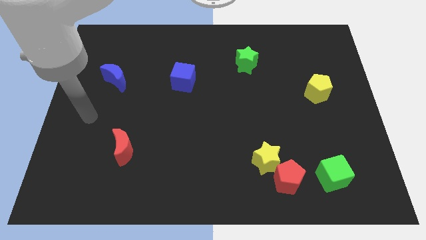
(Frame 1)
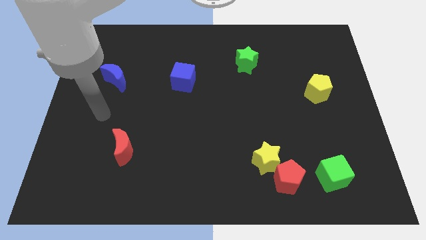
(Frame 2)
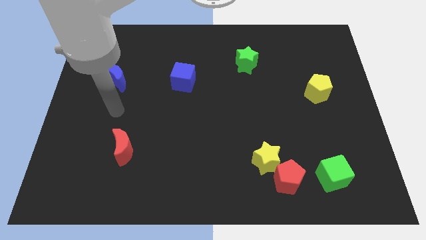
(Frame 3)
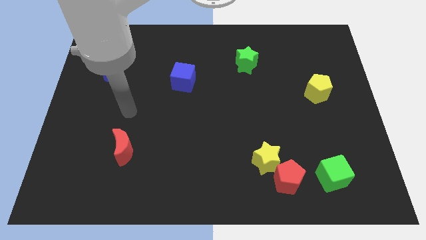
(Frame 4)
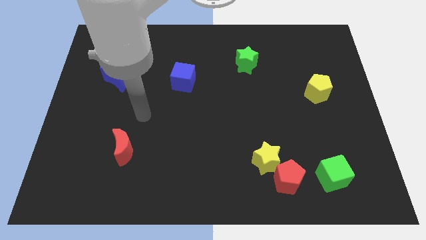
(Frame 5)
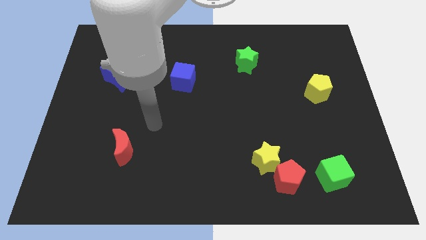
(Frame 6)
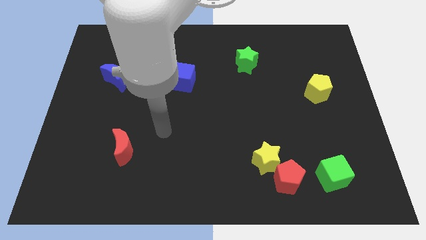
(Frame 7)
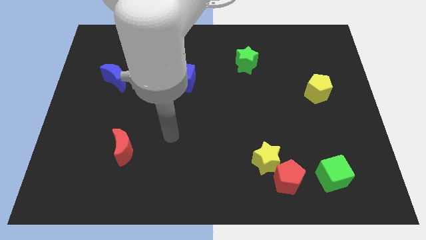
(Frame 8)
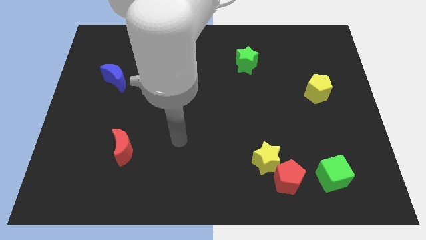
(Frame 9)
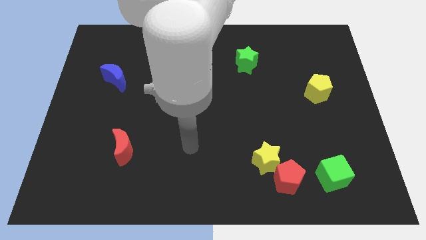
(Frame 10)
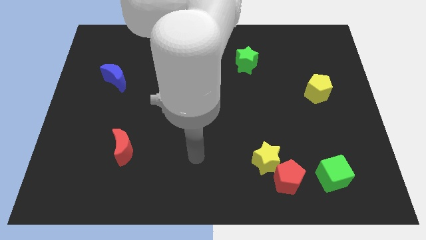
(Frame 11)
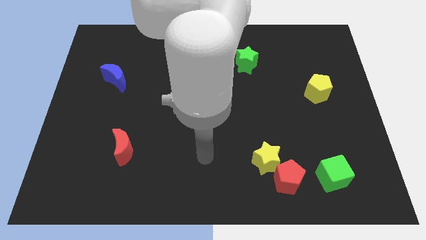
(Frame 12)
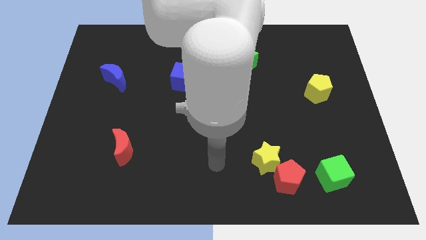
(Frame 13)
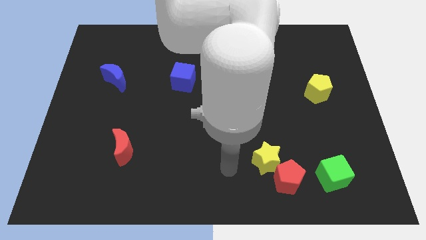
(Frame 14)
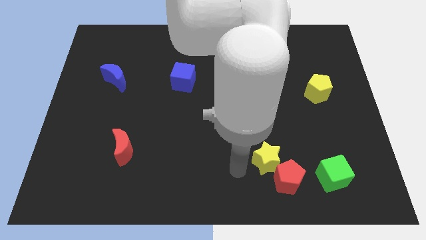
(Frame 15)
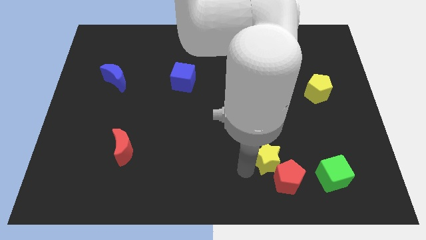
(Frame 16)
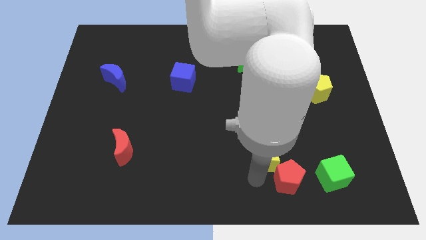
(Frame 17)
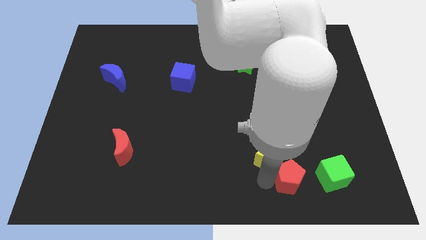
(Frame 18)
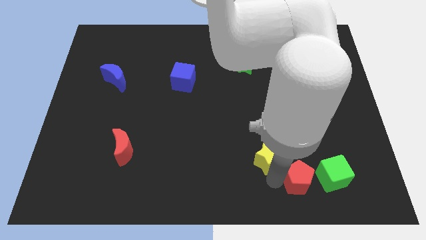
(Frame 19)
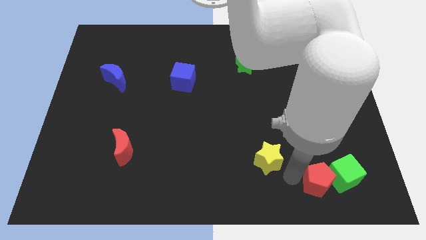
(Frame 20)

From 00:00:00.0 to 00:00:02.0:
pull the yellow star apart from the red pentagon

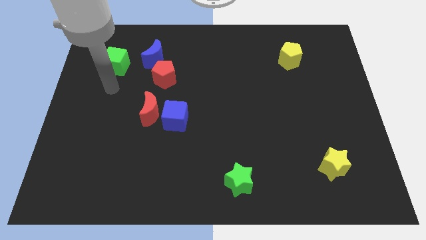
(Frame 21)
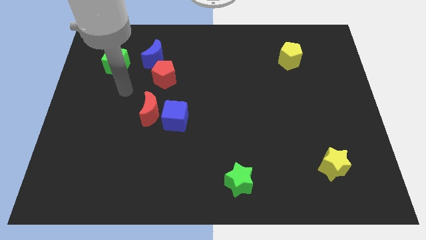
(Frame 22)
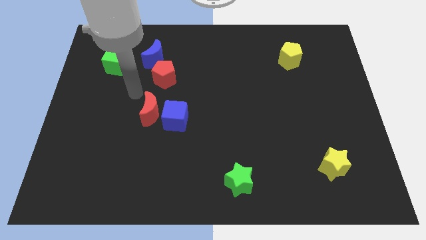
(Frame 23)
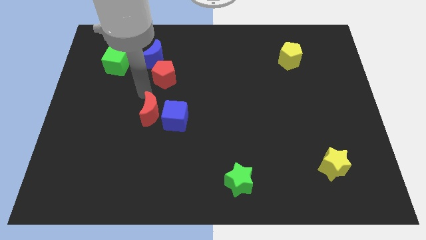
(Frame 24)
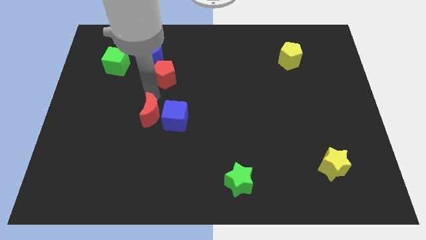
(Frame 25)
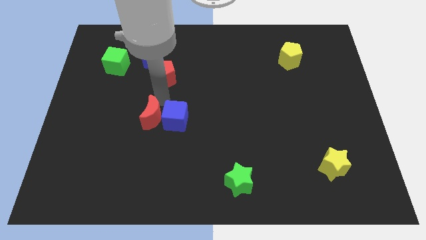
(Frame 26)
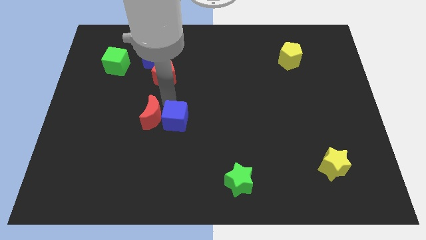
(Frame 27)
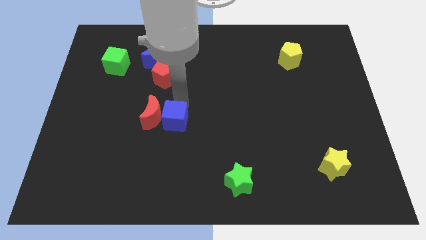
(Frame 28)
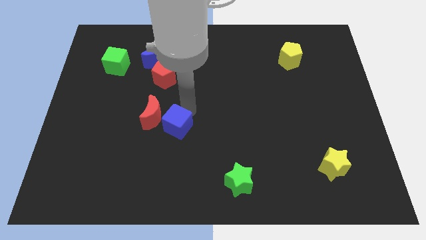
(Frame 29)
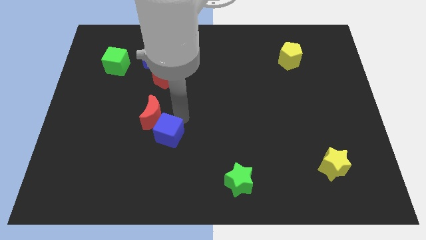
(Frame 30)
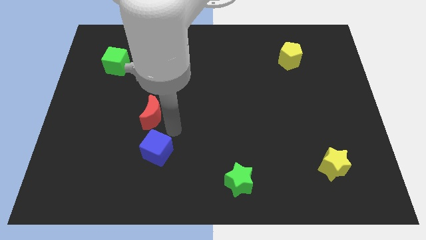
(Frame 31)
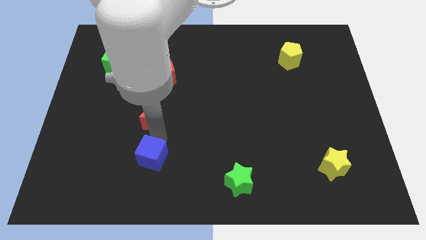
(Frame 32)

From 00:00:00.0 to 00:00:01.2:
move the red moon away from the blue cube

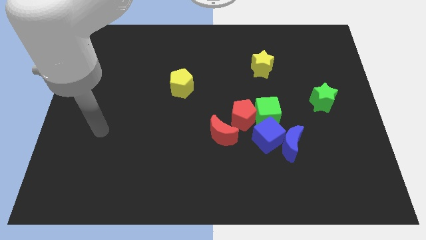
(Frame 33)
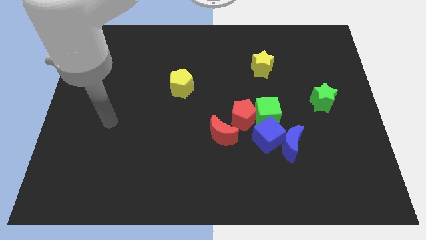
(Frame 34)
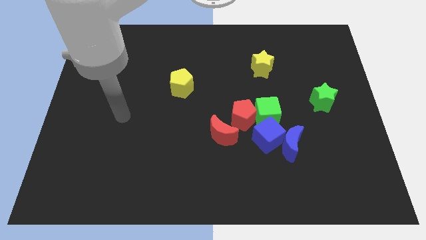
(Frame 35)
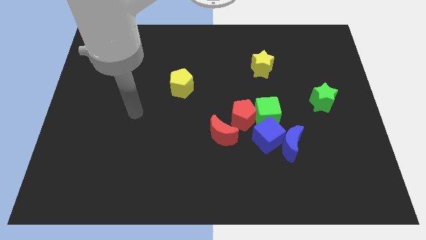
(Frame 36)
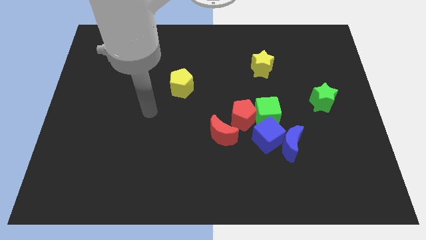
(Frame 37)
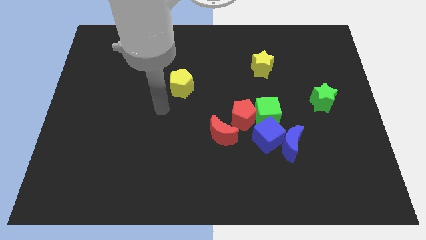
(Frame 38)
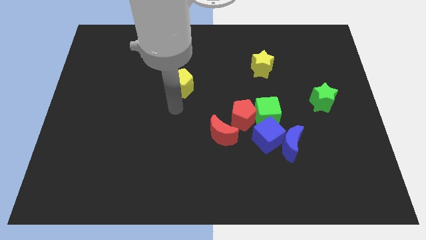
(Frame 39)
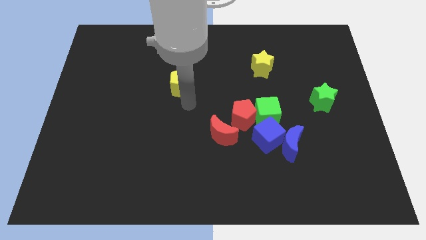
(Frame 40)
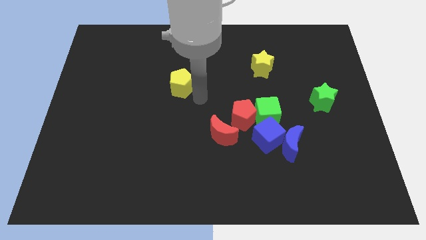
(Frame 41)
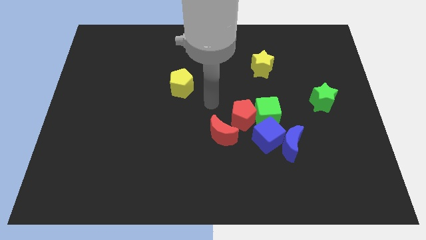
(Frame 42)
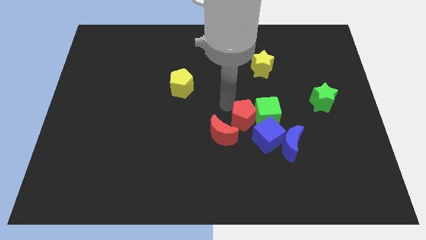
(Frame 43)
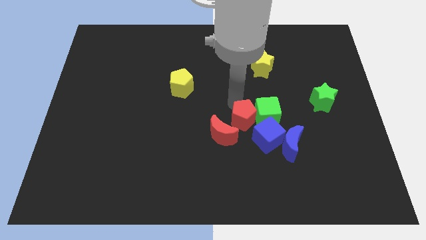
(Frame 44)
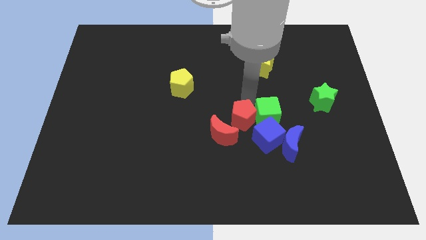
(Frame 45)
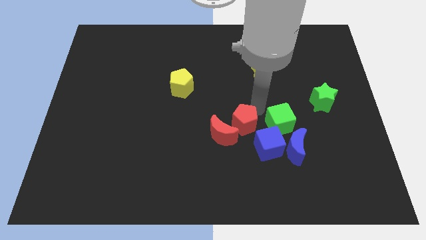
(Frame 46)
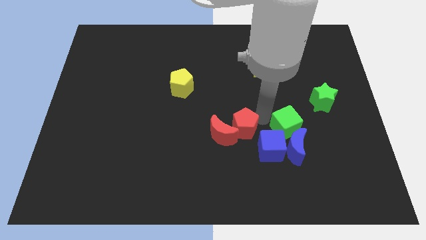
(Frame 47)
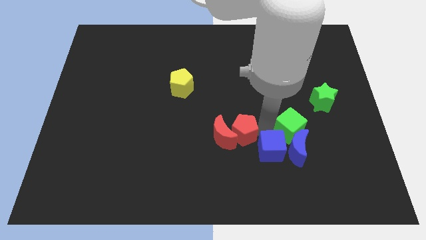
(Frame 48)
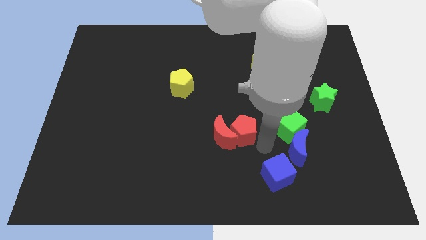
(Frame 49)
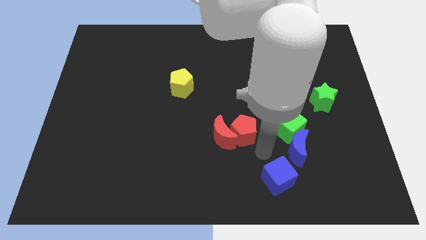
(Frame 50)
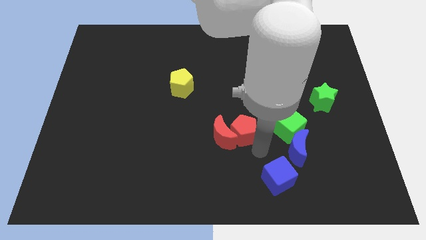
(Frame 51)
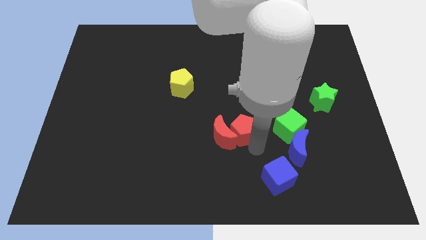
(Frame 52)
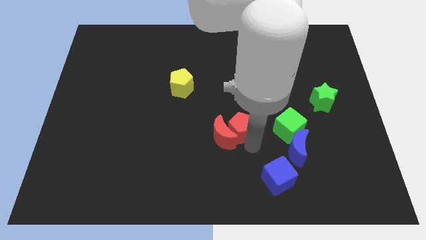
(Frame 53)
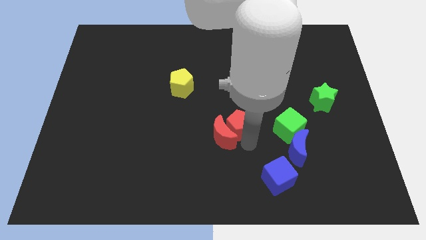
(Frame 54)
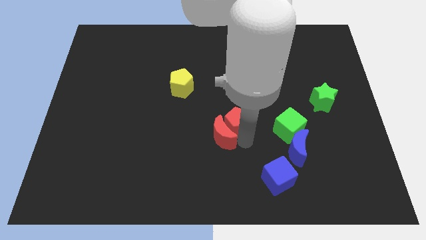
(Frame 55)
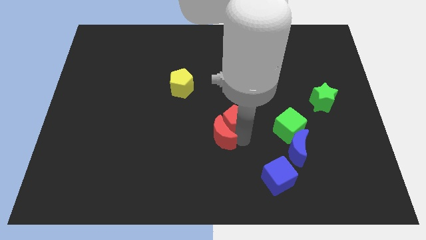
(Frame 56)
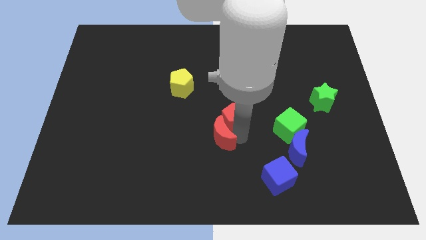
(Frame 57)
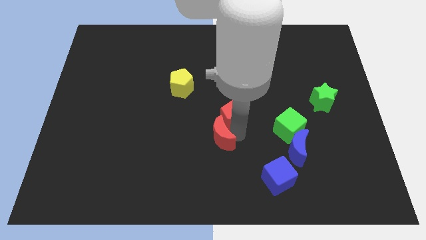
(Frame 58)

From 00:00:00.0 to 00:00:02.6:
move the red pentagon away from the group of blocks

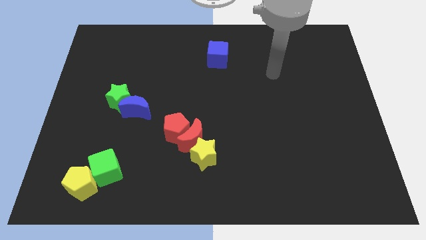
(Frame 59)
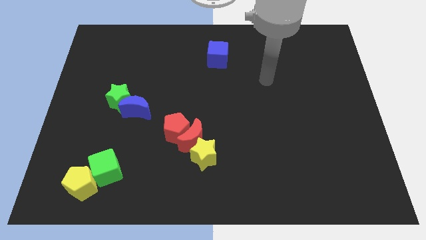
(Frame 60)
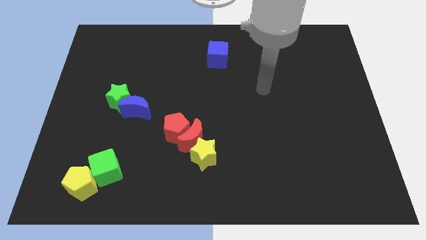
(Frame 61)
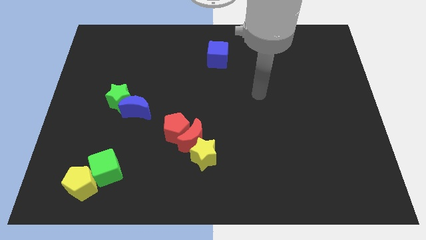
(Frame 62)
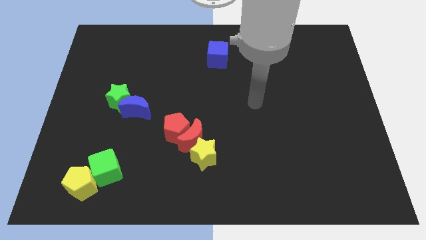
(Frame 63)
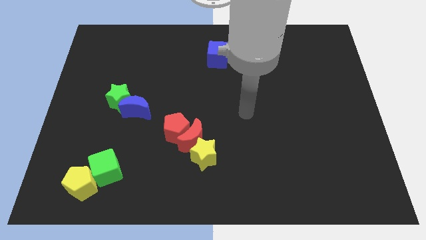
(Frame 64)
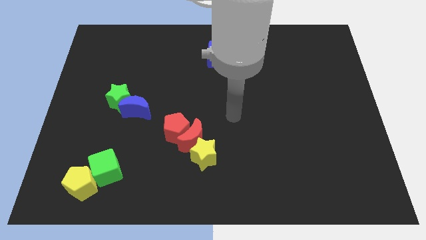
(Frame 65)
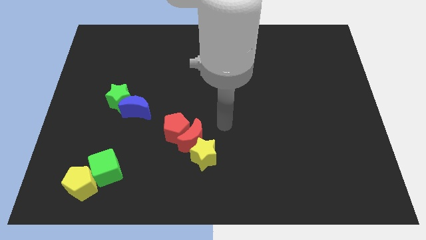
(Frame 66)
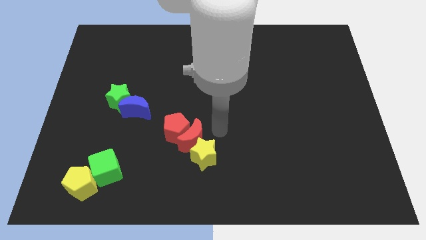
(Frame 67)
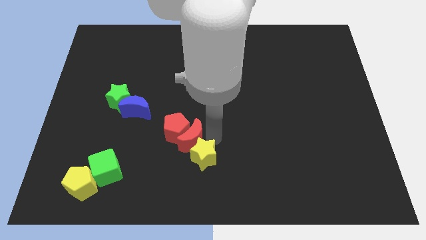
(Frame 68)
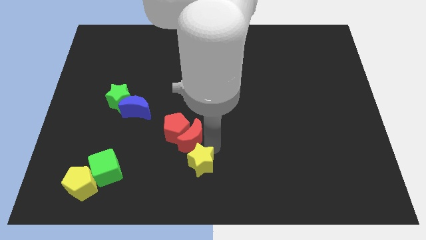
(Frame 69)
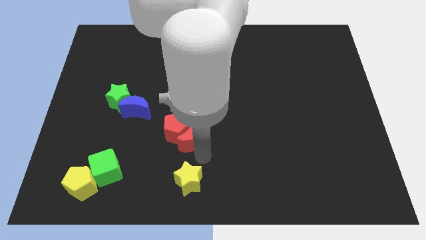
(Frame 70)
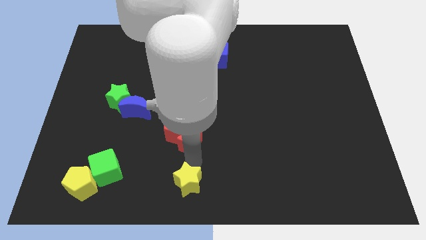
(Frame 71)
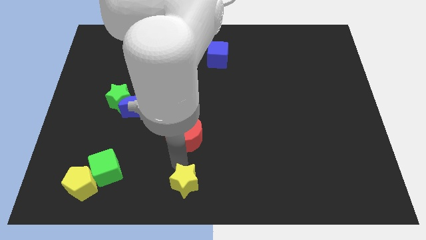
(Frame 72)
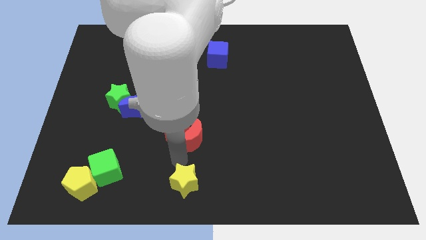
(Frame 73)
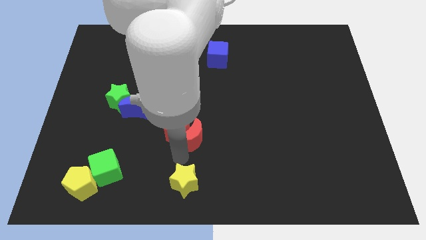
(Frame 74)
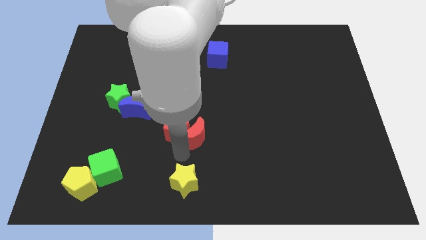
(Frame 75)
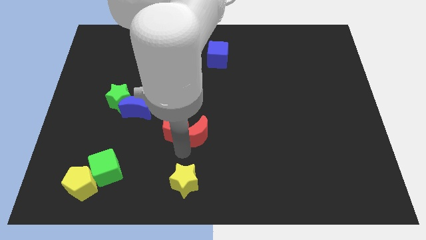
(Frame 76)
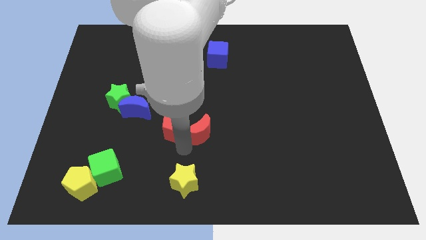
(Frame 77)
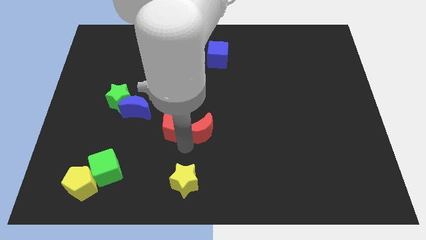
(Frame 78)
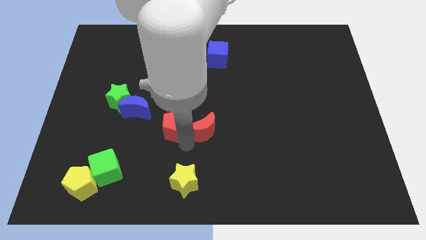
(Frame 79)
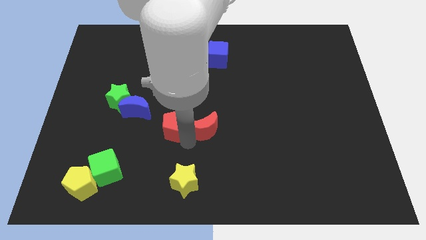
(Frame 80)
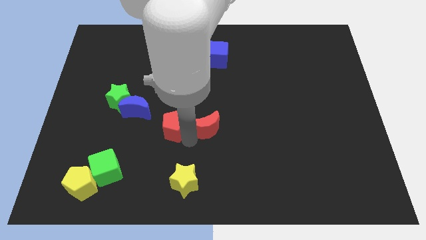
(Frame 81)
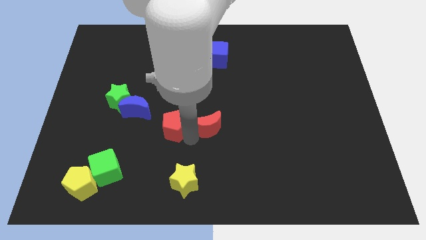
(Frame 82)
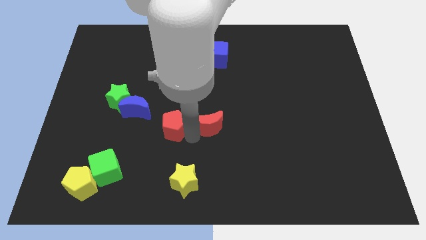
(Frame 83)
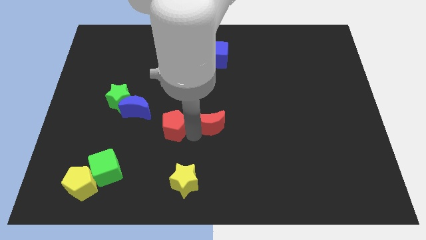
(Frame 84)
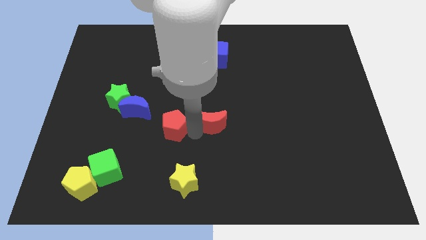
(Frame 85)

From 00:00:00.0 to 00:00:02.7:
separate the red moon from the red pentagon and yellow star

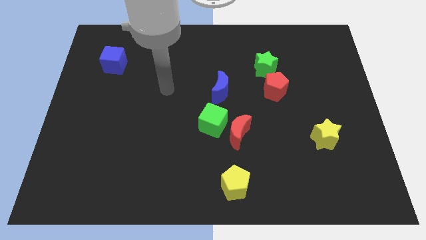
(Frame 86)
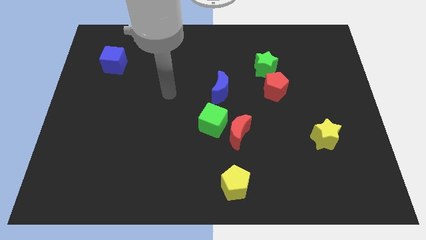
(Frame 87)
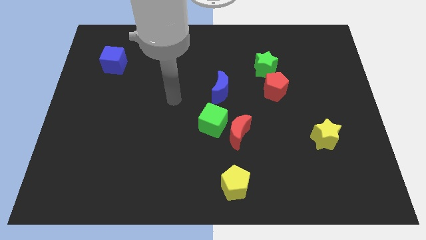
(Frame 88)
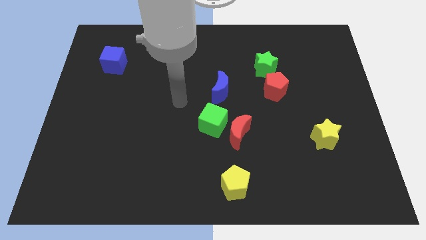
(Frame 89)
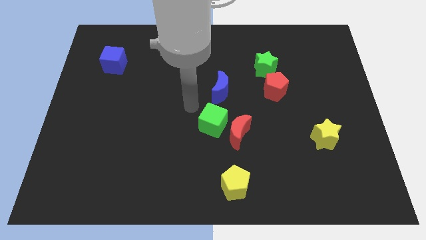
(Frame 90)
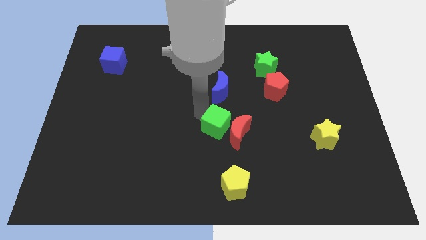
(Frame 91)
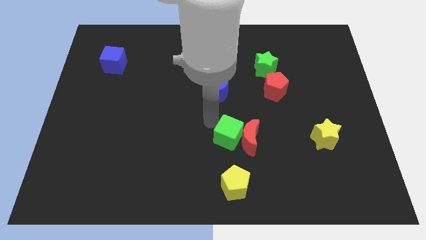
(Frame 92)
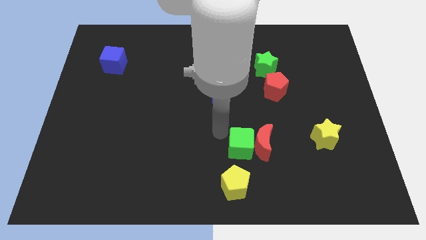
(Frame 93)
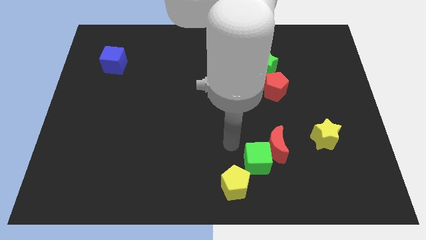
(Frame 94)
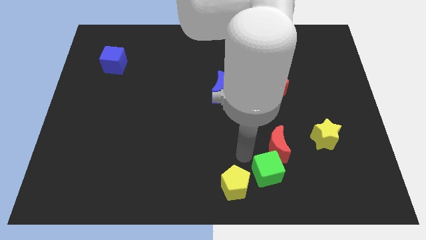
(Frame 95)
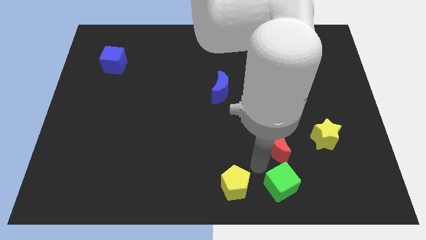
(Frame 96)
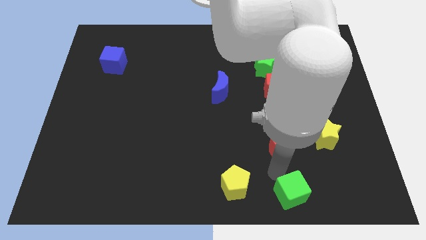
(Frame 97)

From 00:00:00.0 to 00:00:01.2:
pull the red moon apart from the green cube
